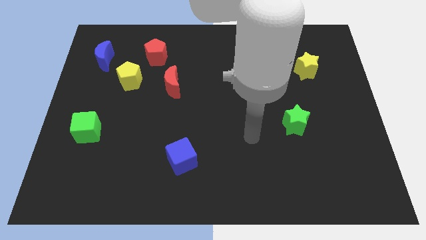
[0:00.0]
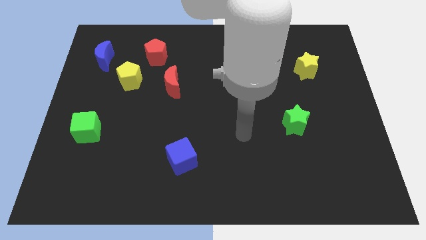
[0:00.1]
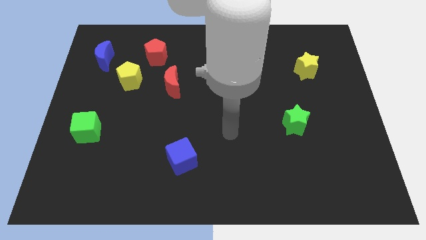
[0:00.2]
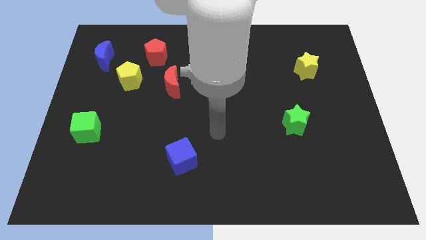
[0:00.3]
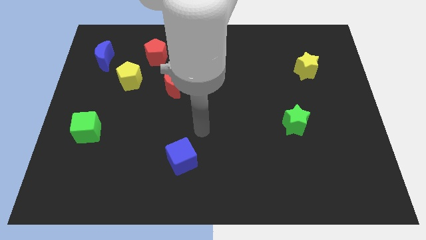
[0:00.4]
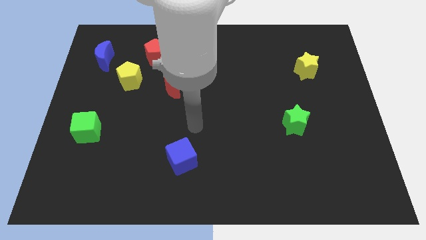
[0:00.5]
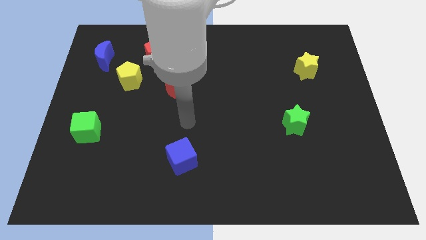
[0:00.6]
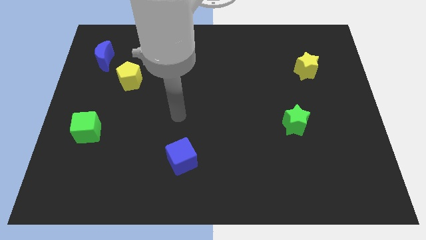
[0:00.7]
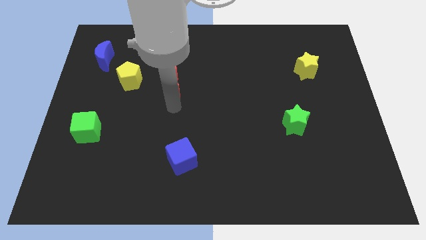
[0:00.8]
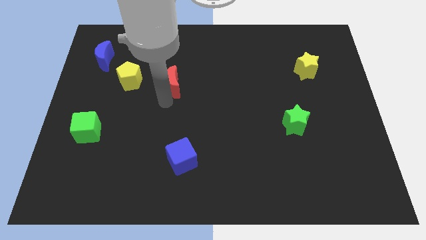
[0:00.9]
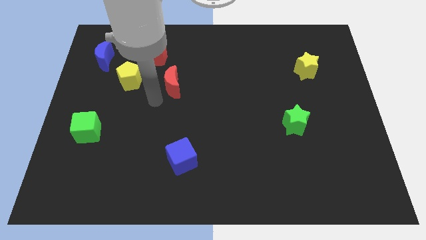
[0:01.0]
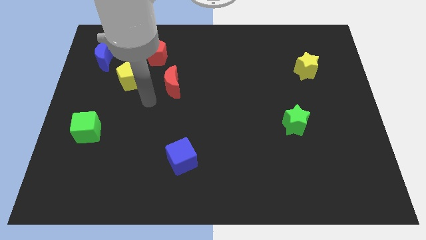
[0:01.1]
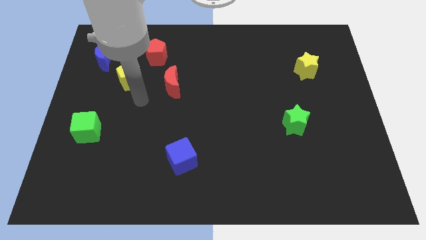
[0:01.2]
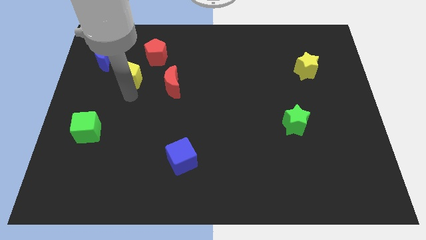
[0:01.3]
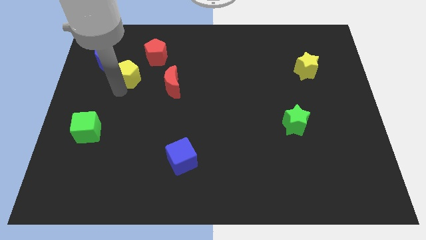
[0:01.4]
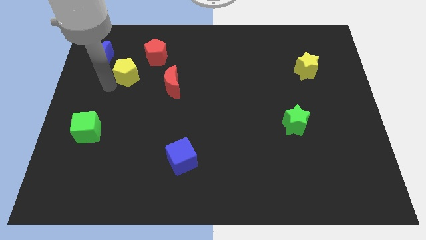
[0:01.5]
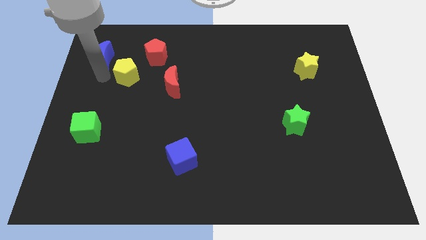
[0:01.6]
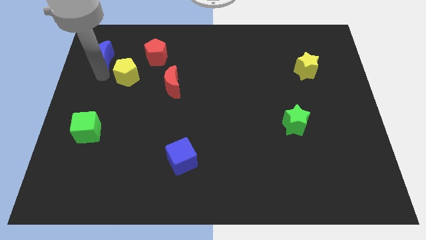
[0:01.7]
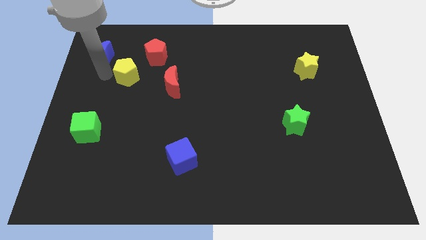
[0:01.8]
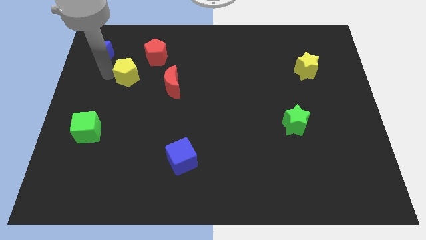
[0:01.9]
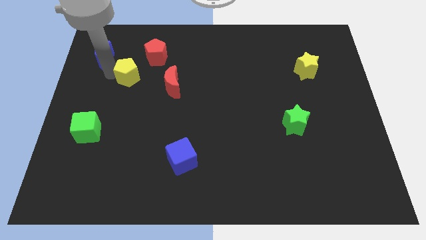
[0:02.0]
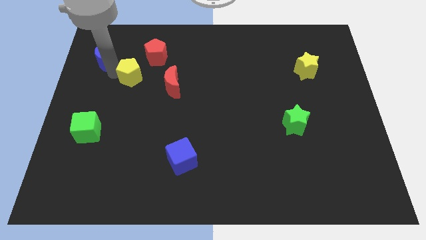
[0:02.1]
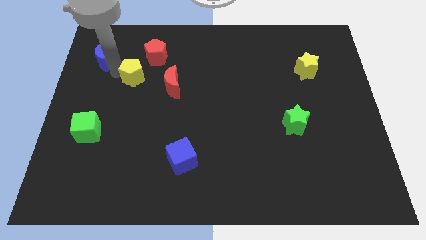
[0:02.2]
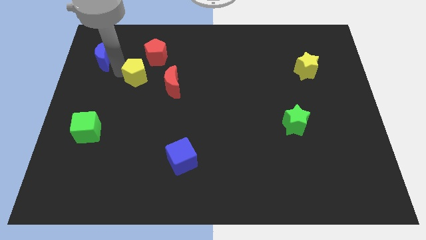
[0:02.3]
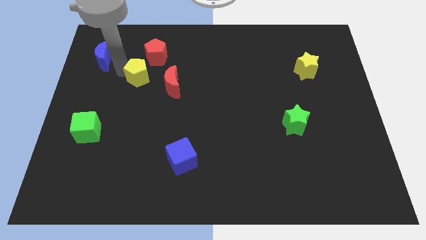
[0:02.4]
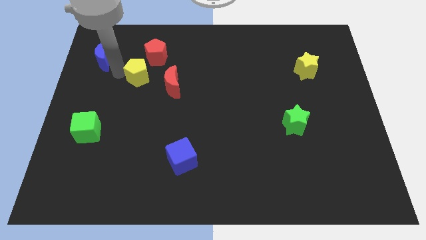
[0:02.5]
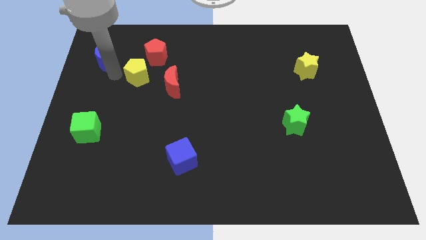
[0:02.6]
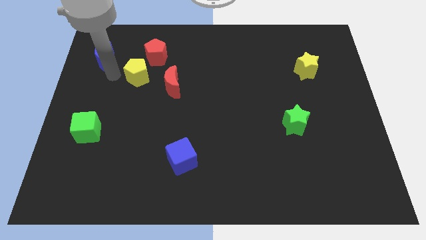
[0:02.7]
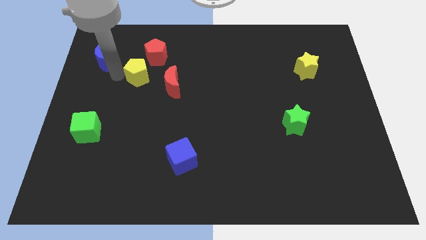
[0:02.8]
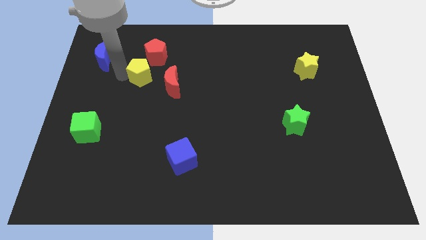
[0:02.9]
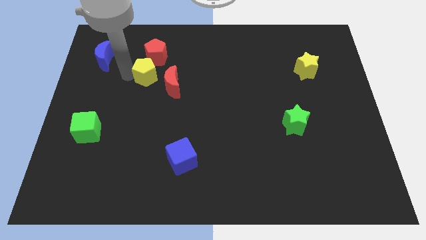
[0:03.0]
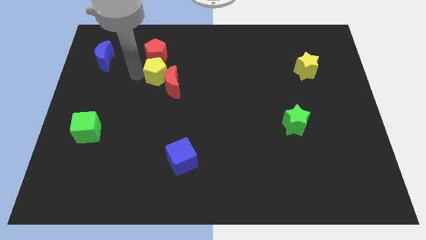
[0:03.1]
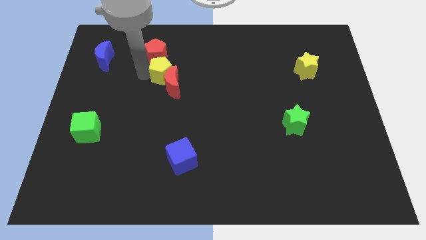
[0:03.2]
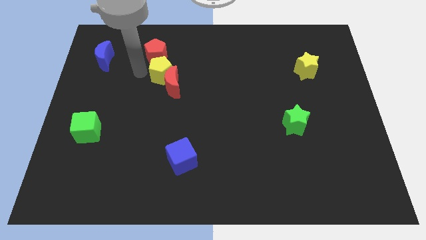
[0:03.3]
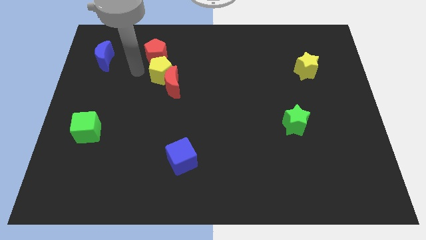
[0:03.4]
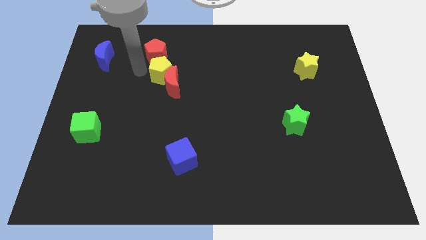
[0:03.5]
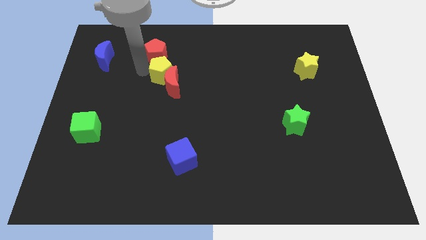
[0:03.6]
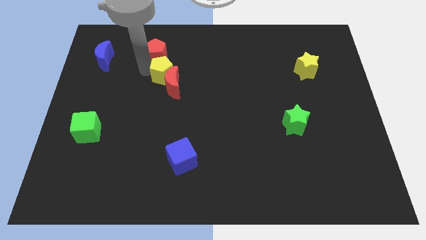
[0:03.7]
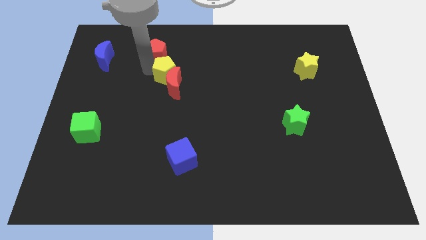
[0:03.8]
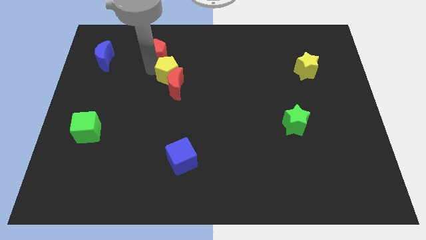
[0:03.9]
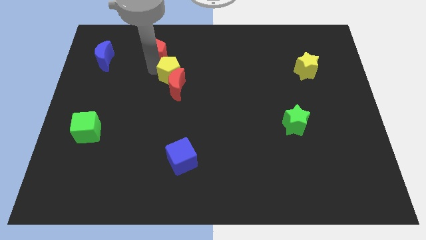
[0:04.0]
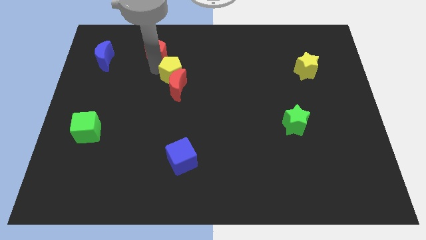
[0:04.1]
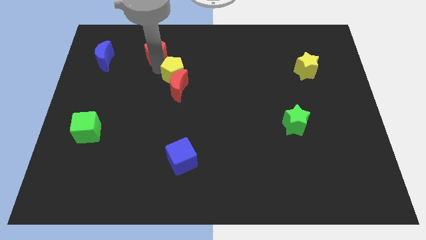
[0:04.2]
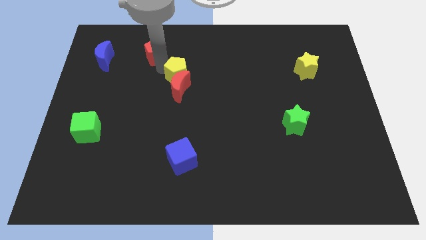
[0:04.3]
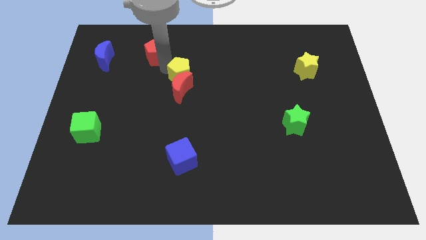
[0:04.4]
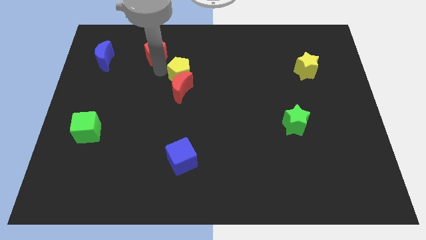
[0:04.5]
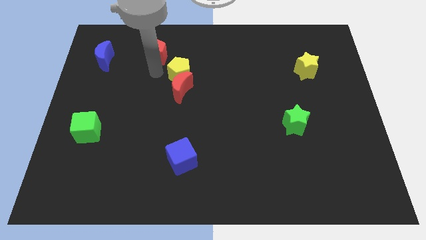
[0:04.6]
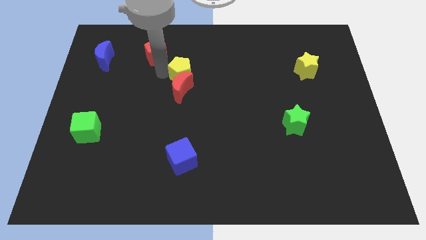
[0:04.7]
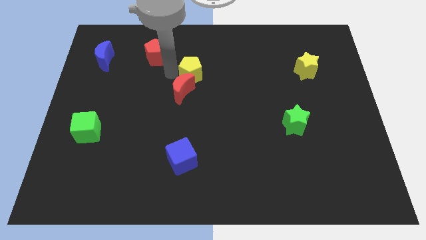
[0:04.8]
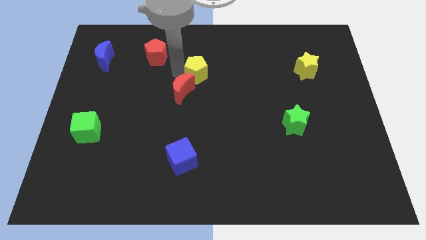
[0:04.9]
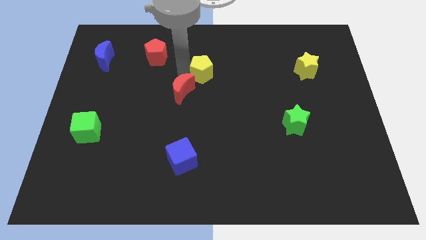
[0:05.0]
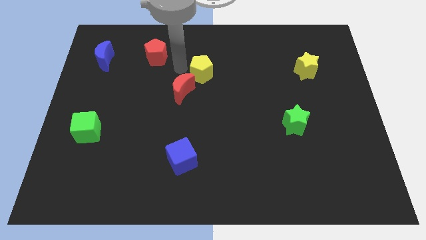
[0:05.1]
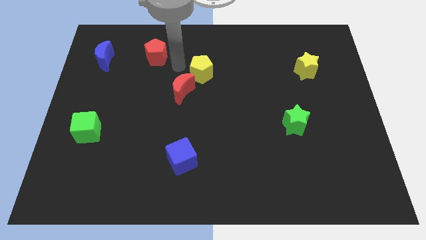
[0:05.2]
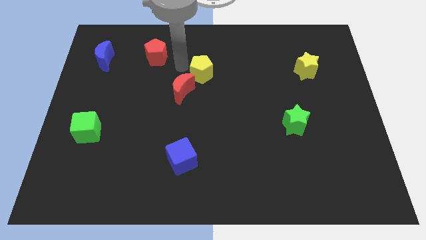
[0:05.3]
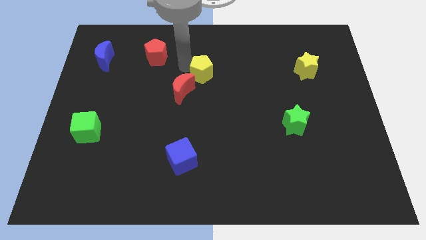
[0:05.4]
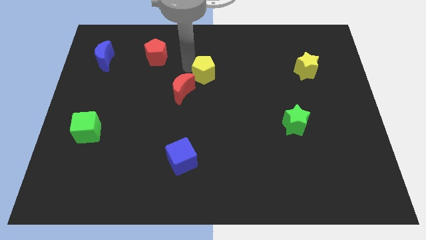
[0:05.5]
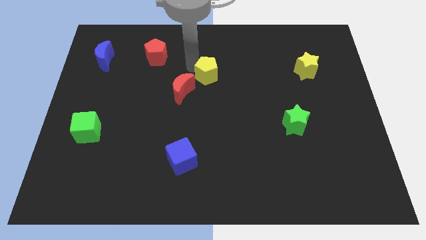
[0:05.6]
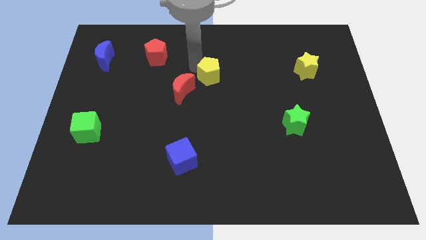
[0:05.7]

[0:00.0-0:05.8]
slide the yellow pentagon right

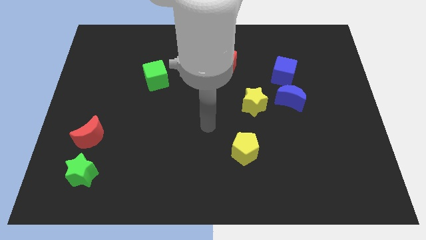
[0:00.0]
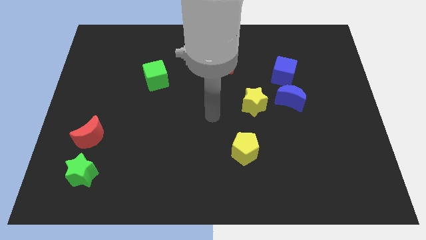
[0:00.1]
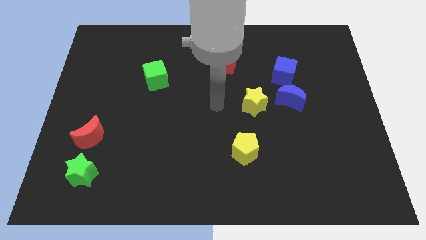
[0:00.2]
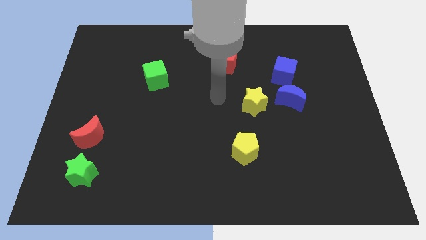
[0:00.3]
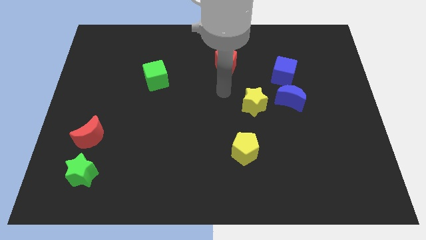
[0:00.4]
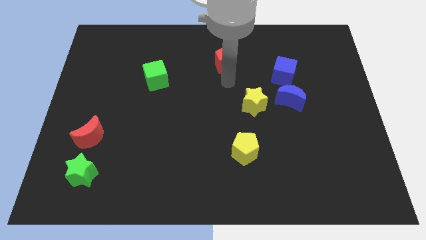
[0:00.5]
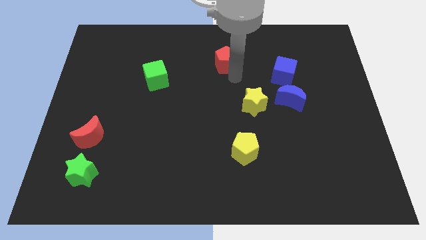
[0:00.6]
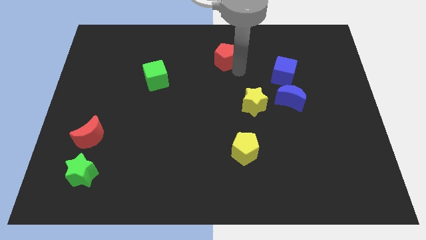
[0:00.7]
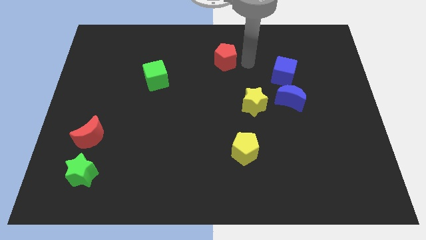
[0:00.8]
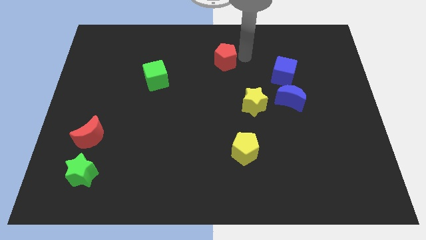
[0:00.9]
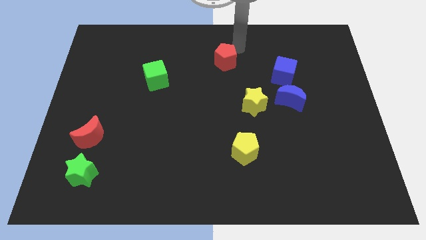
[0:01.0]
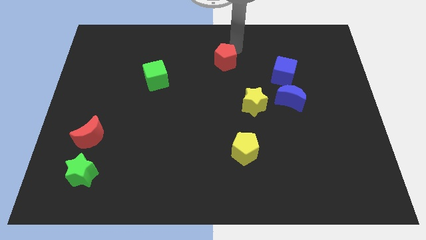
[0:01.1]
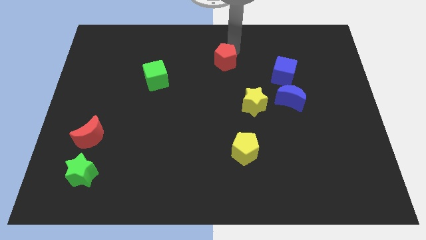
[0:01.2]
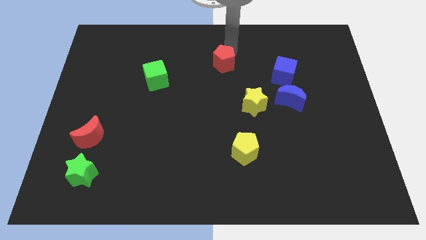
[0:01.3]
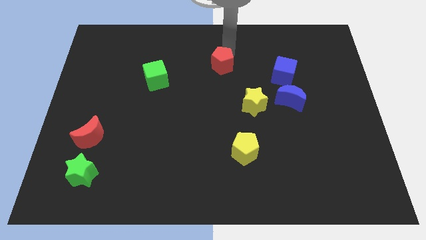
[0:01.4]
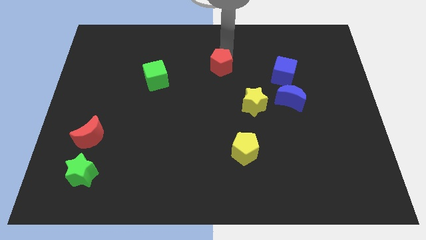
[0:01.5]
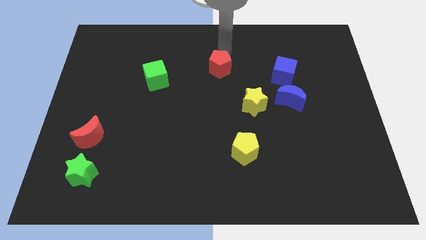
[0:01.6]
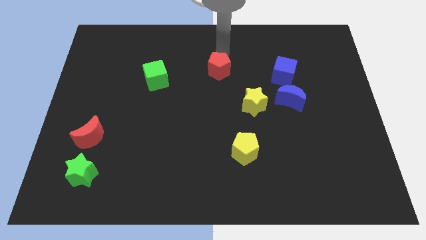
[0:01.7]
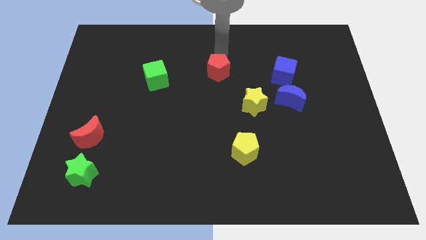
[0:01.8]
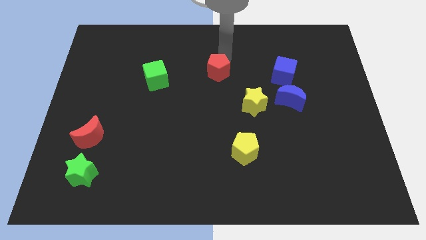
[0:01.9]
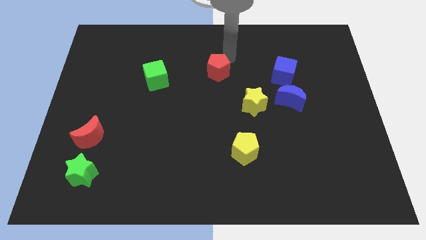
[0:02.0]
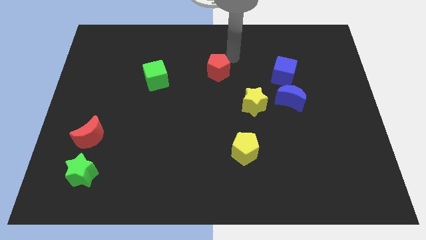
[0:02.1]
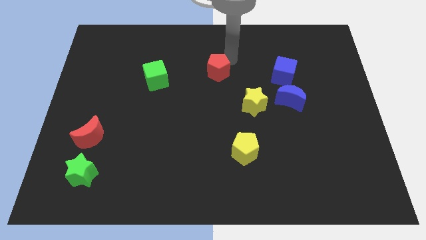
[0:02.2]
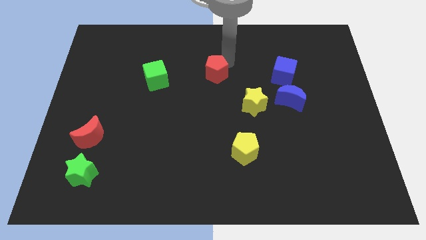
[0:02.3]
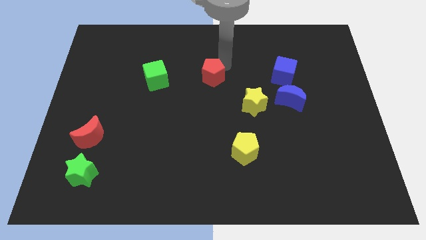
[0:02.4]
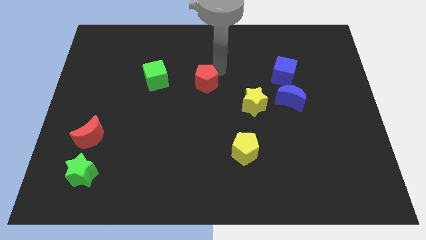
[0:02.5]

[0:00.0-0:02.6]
push the red pentagon down and then left somewhat

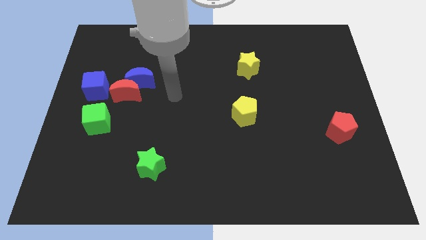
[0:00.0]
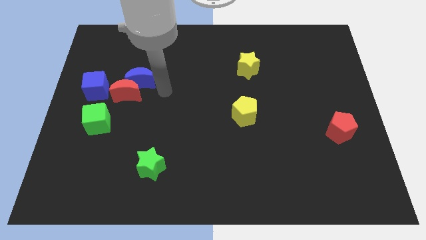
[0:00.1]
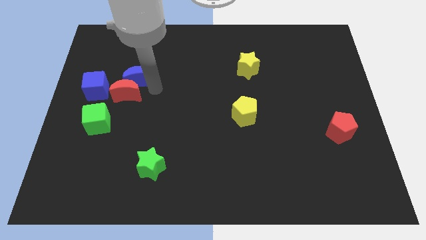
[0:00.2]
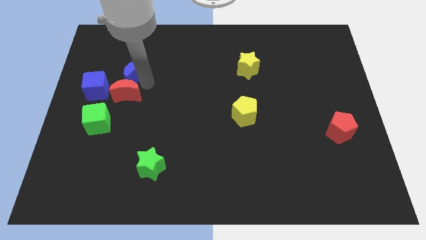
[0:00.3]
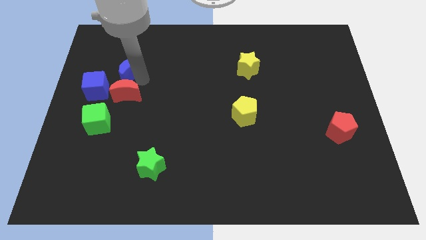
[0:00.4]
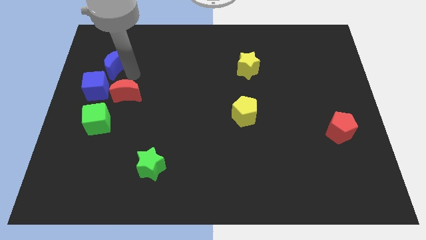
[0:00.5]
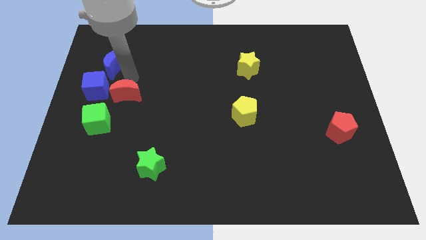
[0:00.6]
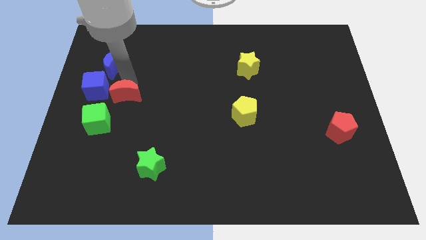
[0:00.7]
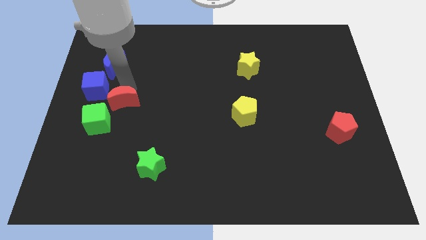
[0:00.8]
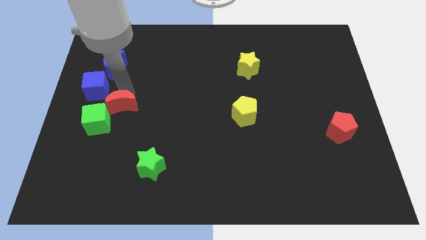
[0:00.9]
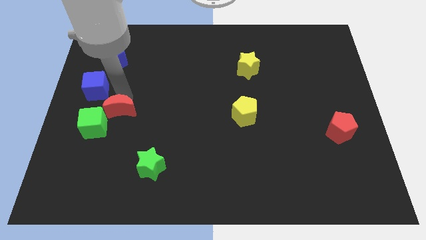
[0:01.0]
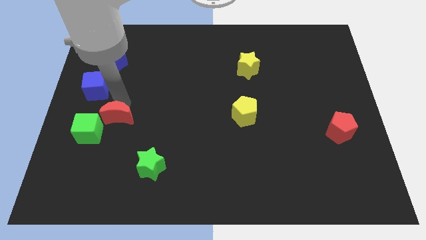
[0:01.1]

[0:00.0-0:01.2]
slide the red moon downwards somewhat
